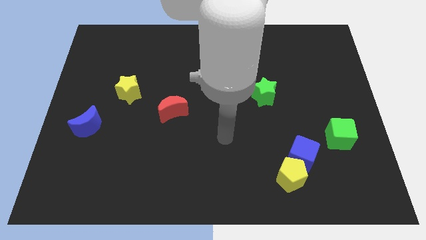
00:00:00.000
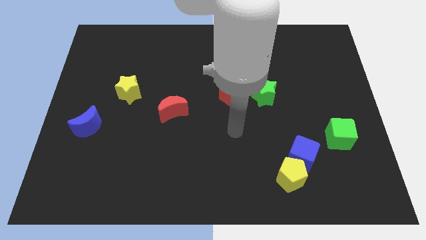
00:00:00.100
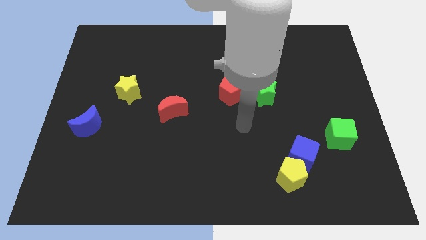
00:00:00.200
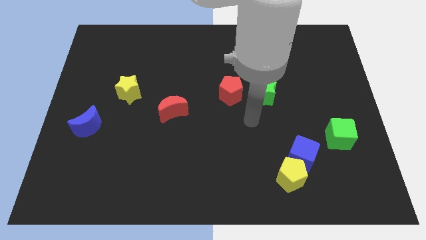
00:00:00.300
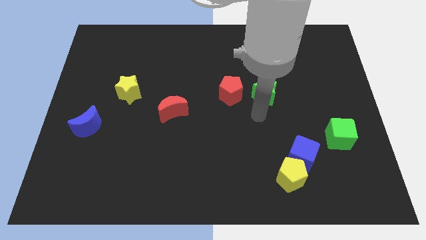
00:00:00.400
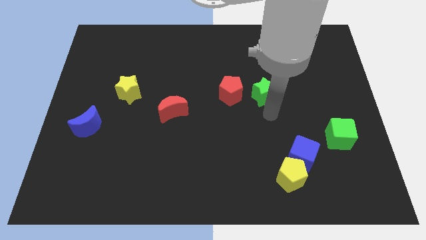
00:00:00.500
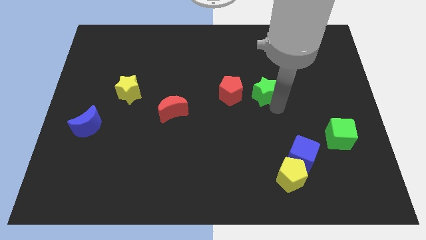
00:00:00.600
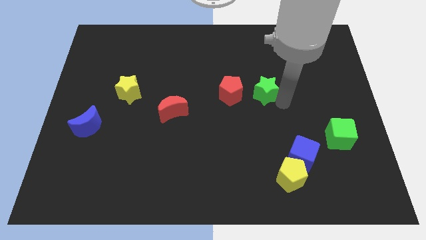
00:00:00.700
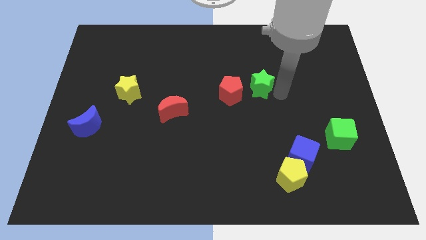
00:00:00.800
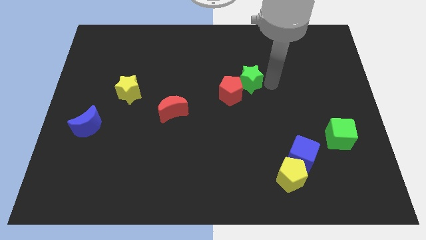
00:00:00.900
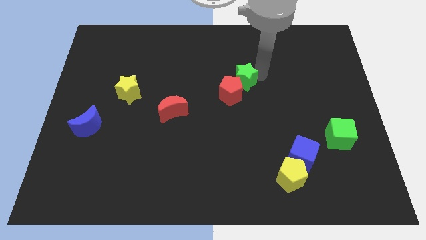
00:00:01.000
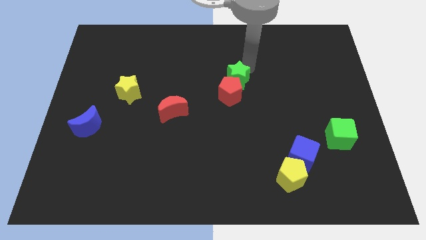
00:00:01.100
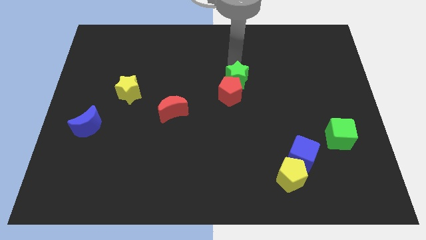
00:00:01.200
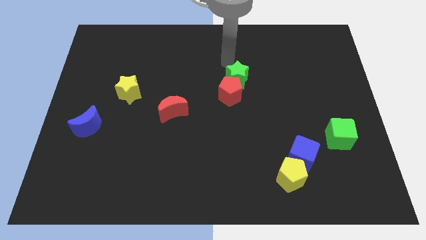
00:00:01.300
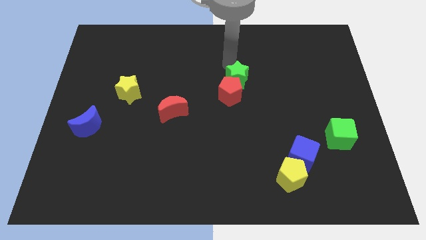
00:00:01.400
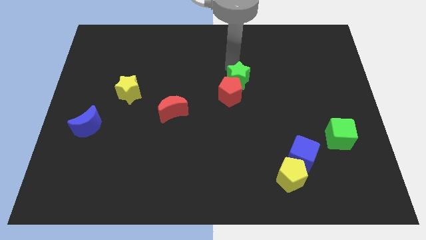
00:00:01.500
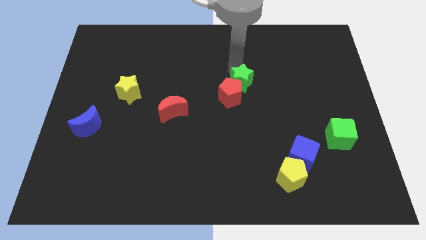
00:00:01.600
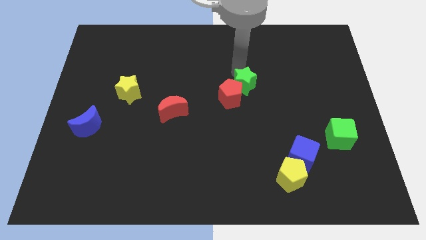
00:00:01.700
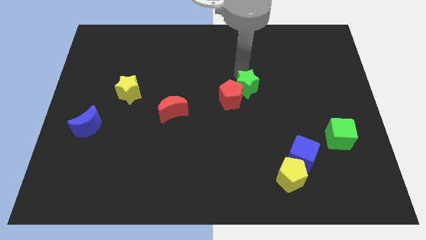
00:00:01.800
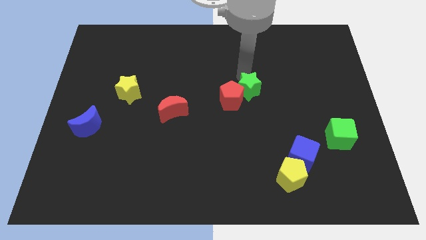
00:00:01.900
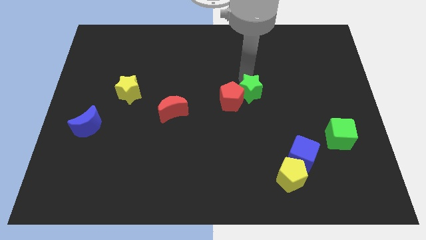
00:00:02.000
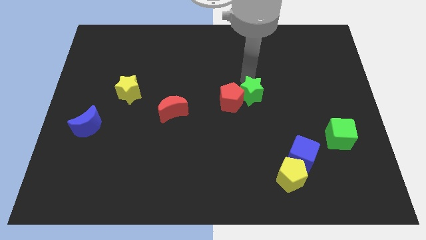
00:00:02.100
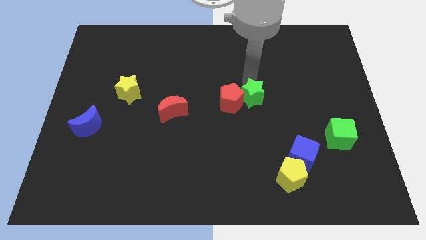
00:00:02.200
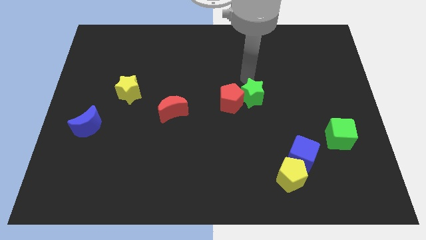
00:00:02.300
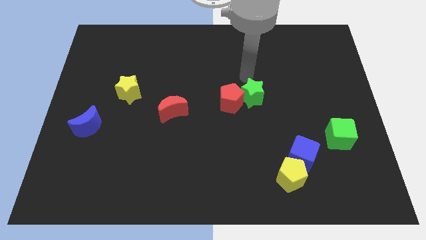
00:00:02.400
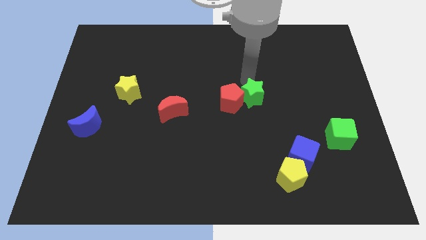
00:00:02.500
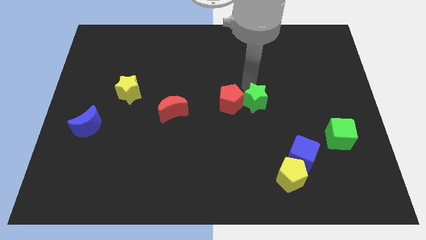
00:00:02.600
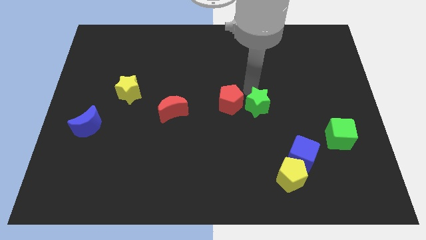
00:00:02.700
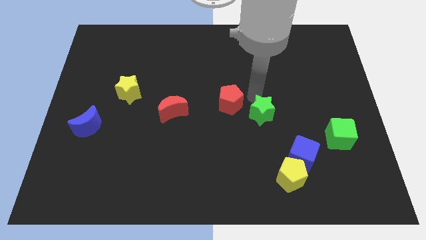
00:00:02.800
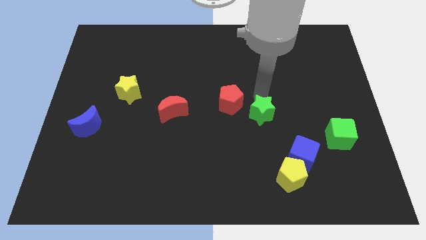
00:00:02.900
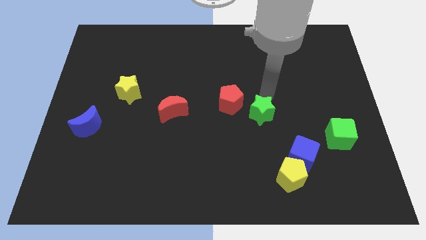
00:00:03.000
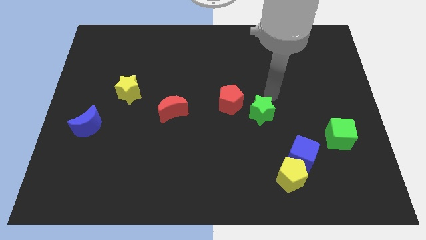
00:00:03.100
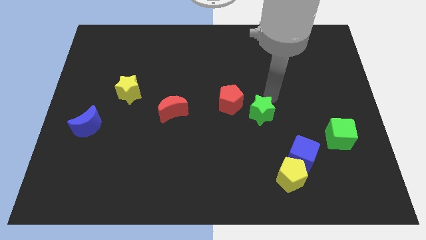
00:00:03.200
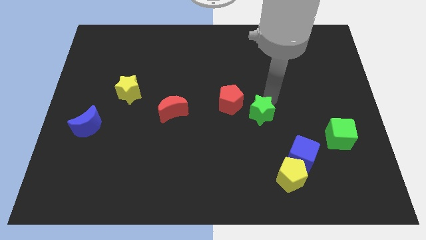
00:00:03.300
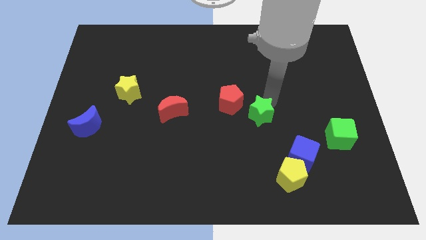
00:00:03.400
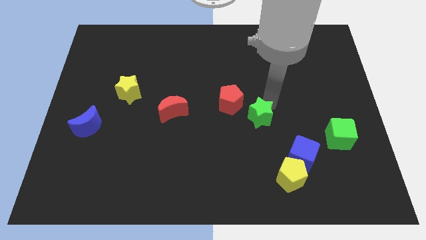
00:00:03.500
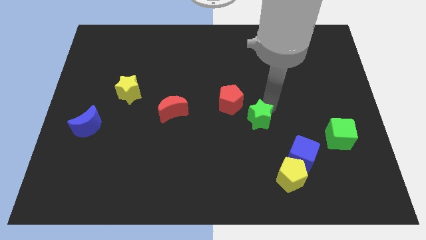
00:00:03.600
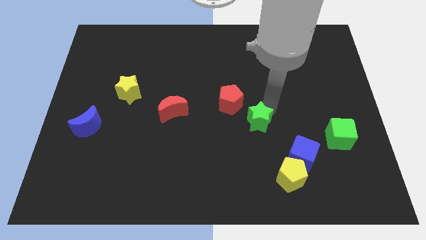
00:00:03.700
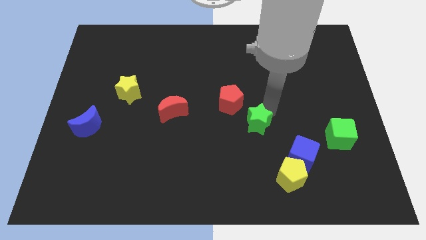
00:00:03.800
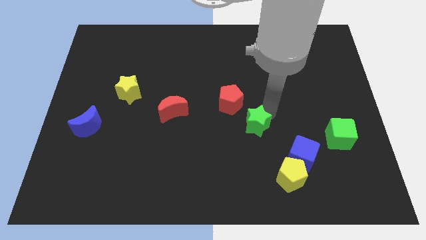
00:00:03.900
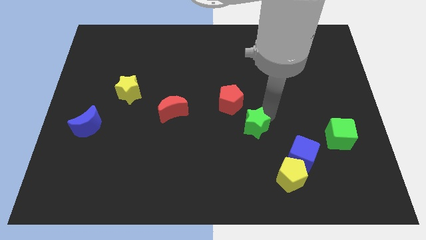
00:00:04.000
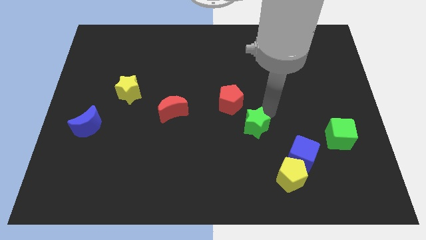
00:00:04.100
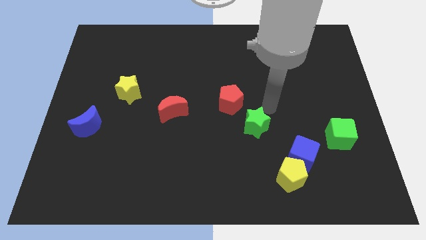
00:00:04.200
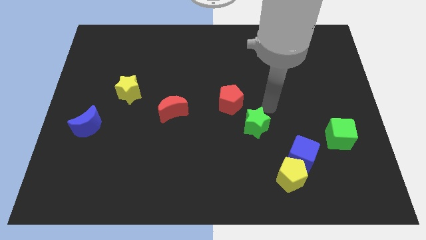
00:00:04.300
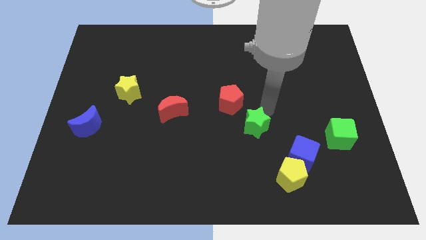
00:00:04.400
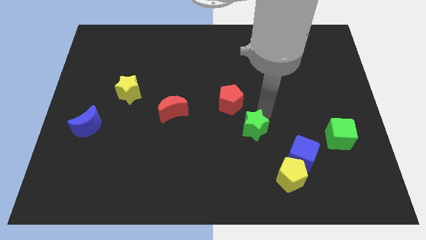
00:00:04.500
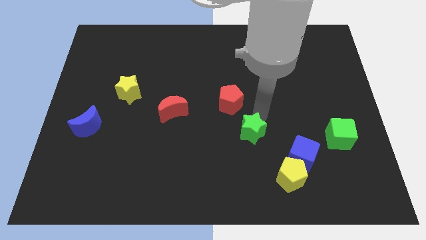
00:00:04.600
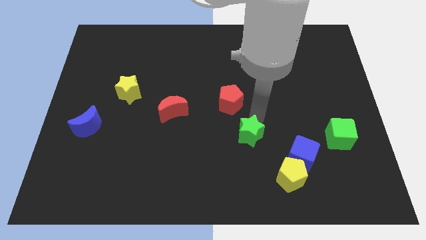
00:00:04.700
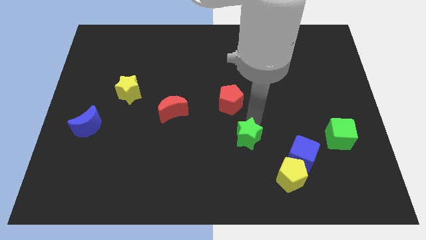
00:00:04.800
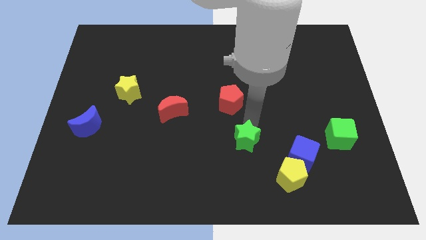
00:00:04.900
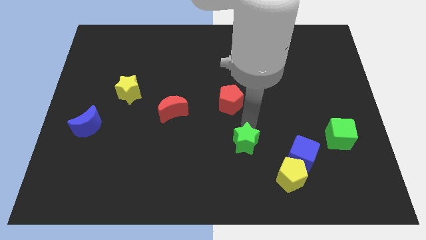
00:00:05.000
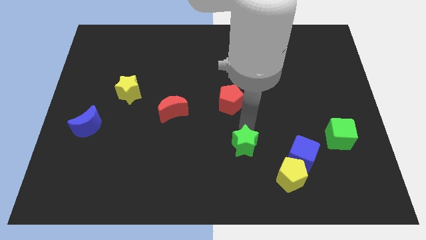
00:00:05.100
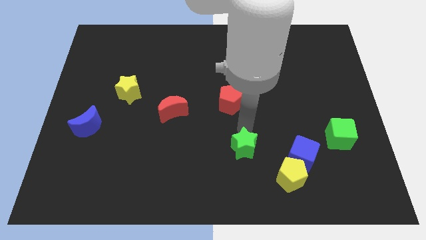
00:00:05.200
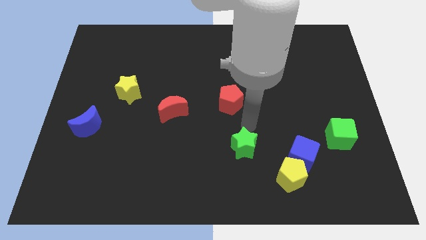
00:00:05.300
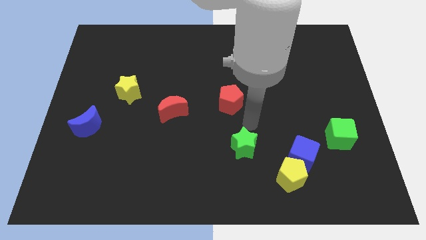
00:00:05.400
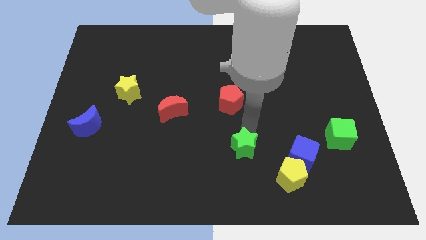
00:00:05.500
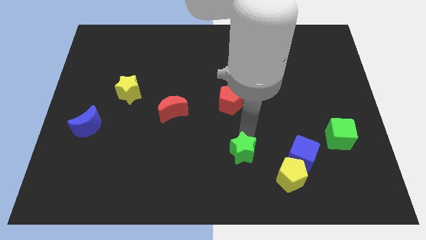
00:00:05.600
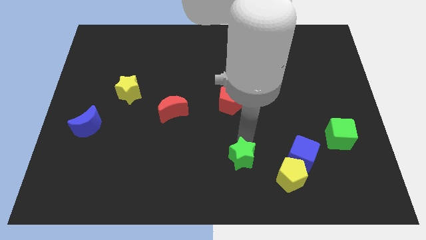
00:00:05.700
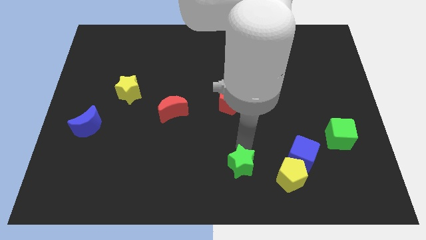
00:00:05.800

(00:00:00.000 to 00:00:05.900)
push the green star to the bottom
